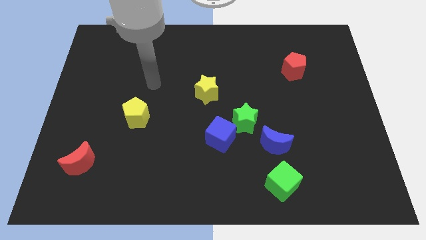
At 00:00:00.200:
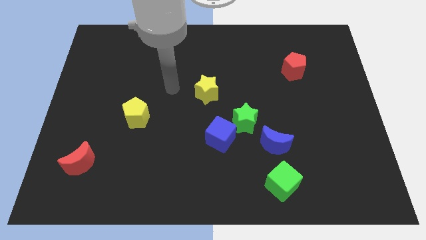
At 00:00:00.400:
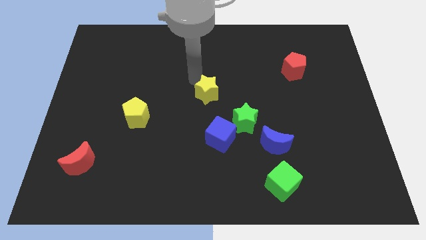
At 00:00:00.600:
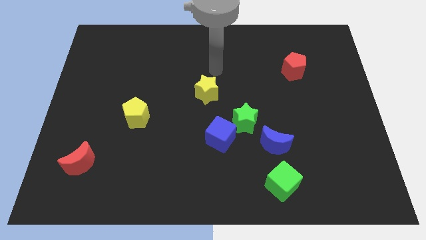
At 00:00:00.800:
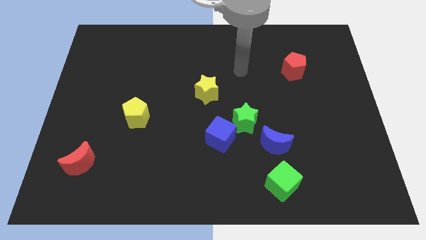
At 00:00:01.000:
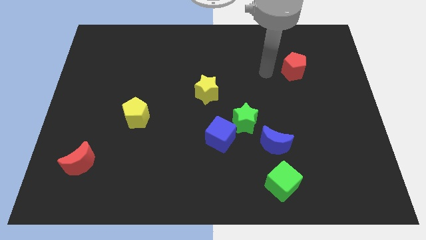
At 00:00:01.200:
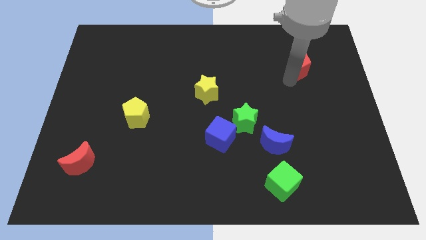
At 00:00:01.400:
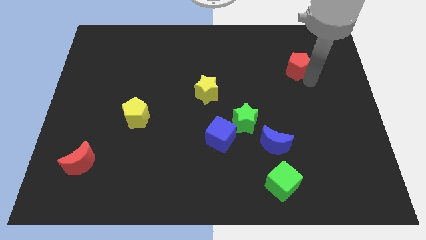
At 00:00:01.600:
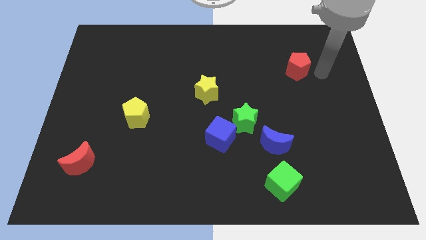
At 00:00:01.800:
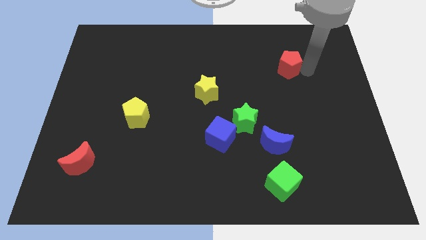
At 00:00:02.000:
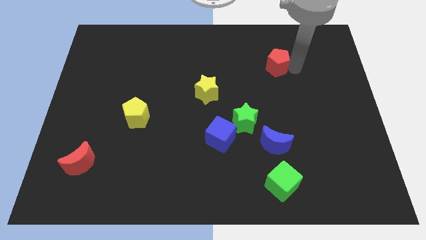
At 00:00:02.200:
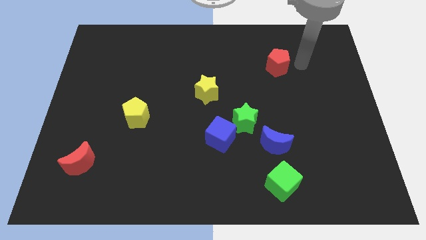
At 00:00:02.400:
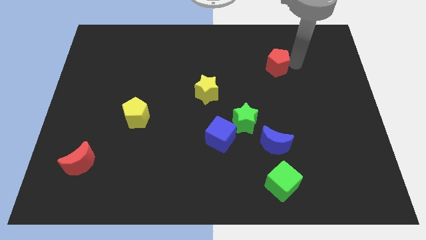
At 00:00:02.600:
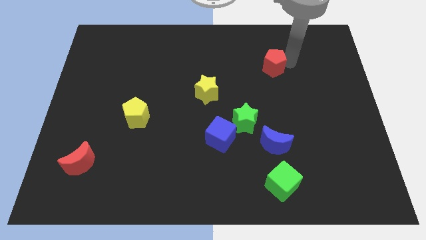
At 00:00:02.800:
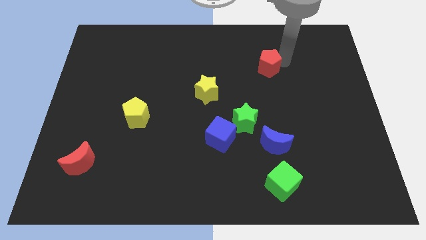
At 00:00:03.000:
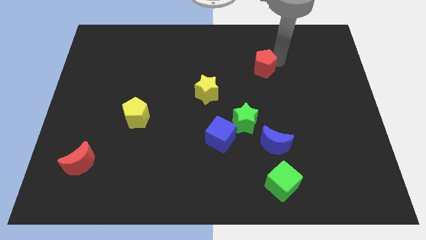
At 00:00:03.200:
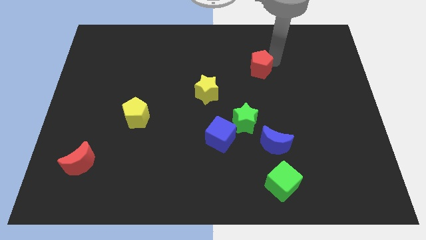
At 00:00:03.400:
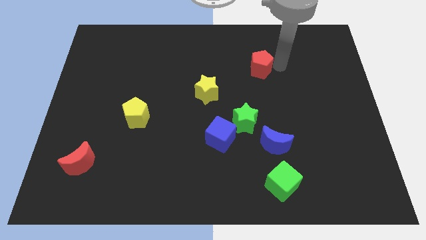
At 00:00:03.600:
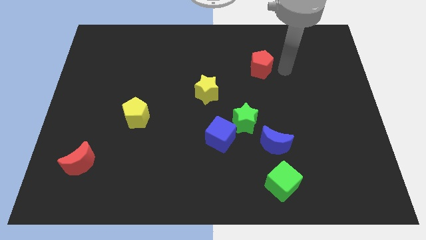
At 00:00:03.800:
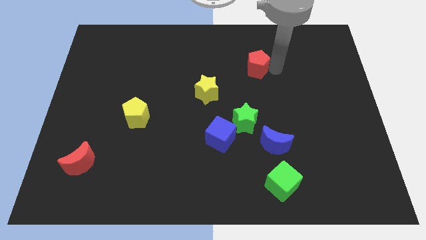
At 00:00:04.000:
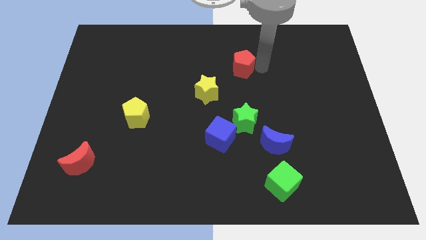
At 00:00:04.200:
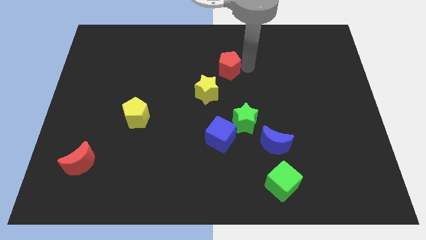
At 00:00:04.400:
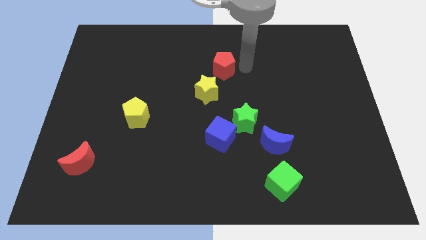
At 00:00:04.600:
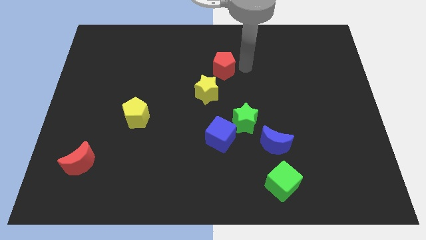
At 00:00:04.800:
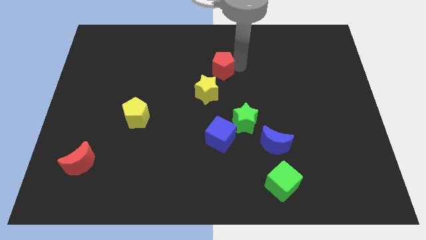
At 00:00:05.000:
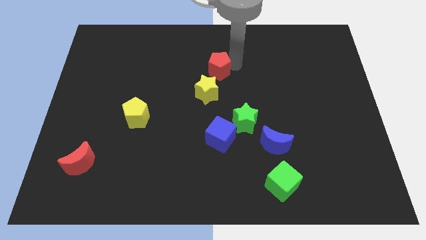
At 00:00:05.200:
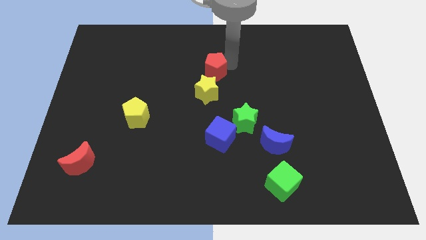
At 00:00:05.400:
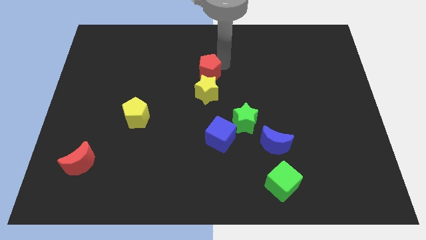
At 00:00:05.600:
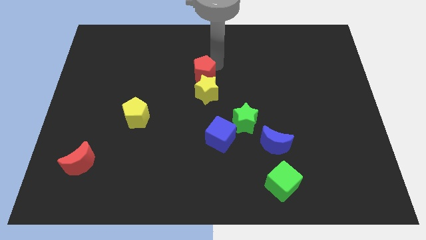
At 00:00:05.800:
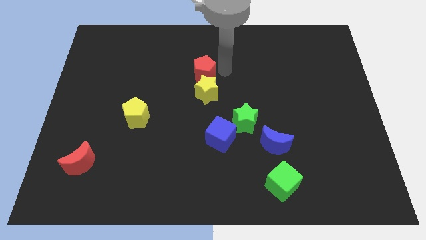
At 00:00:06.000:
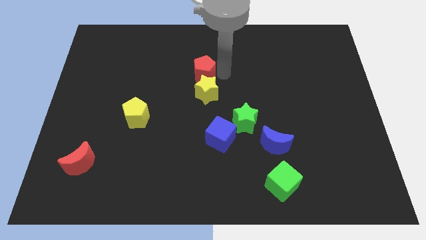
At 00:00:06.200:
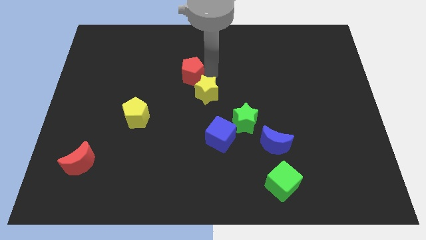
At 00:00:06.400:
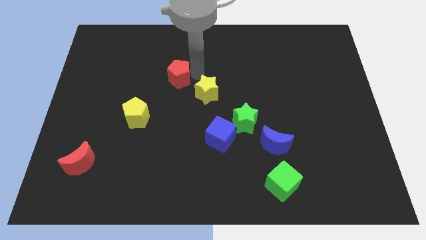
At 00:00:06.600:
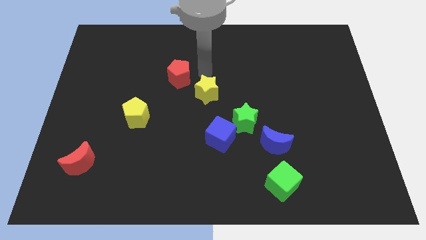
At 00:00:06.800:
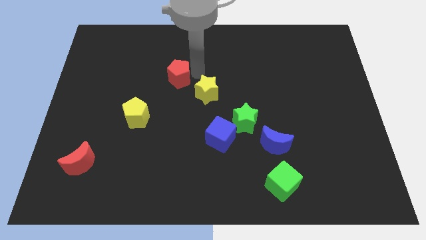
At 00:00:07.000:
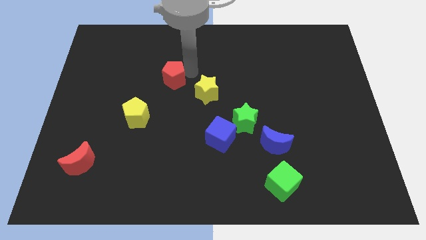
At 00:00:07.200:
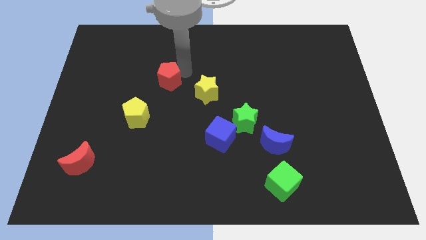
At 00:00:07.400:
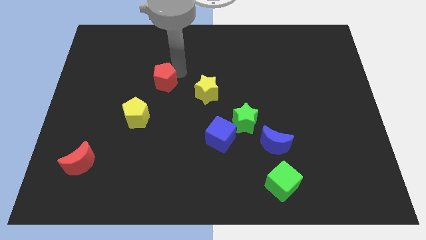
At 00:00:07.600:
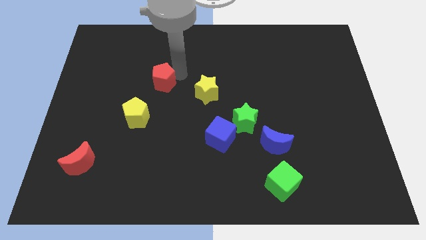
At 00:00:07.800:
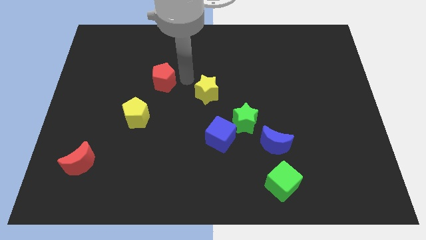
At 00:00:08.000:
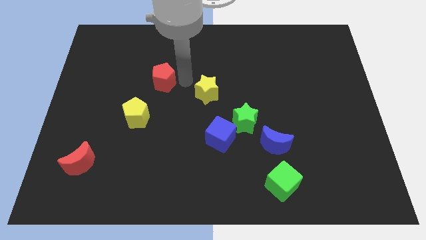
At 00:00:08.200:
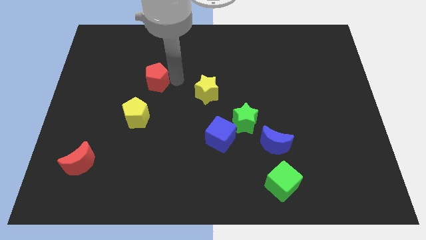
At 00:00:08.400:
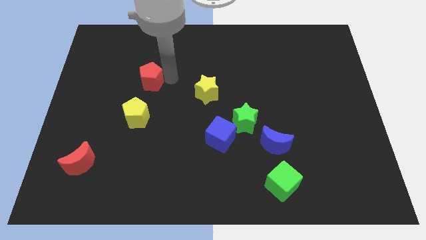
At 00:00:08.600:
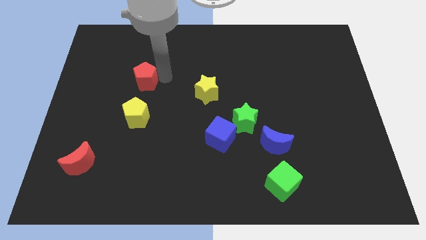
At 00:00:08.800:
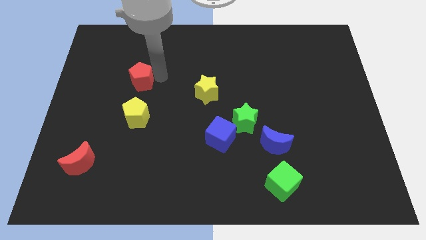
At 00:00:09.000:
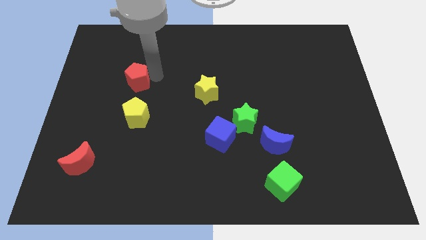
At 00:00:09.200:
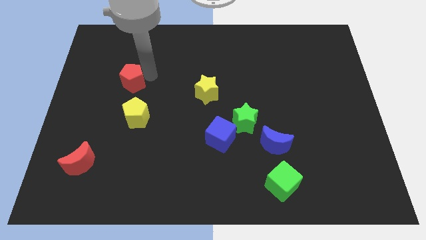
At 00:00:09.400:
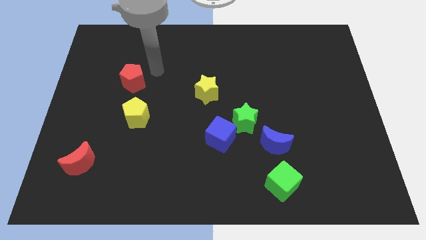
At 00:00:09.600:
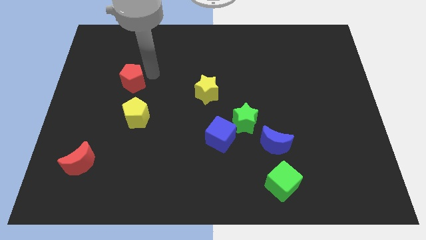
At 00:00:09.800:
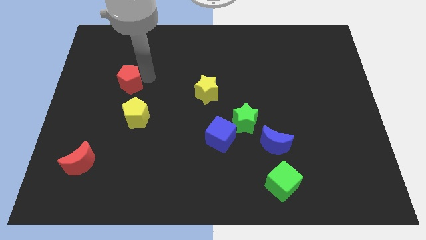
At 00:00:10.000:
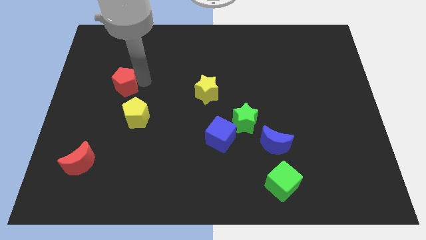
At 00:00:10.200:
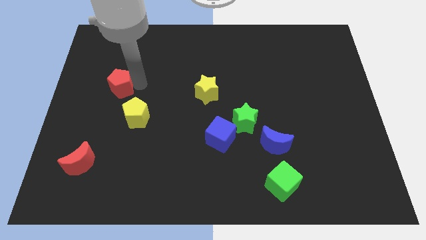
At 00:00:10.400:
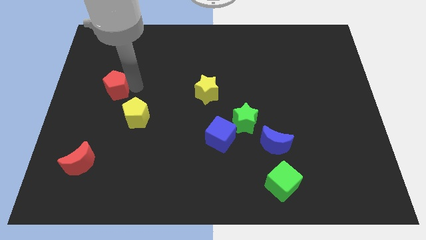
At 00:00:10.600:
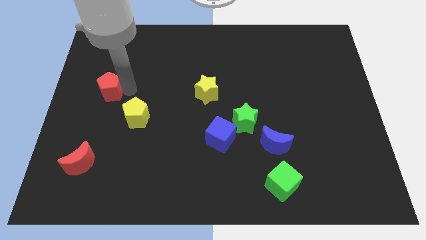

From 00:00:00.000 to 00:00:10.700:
move the red pentagon to the left side

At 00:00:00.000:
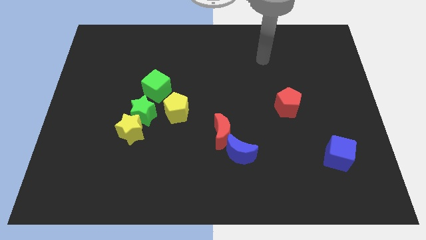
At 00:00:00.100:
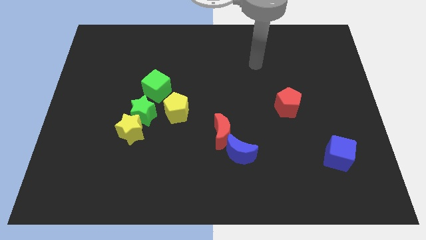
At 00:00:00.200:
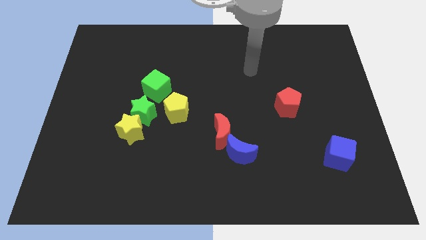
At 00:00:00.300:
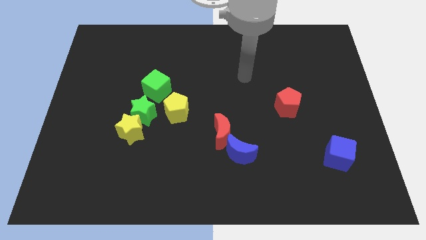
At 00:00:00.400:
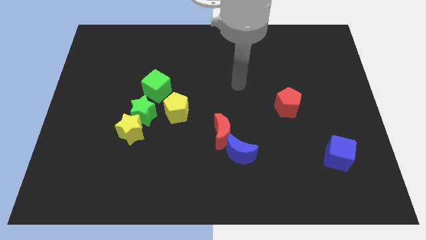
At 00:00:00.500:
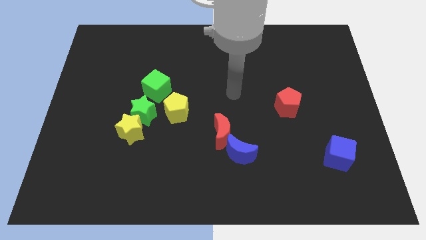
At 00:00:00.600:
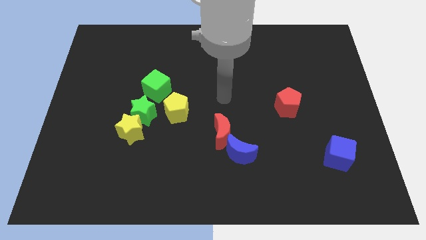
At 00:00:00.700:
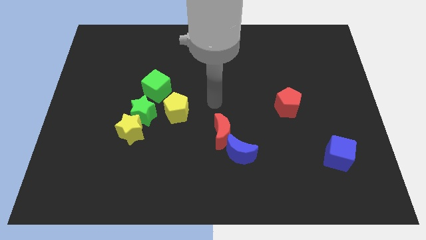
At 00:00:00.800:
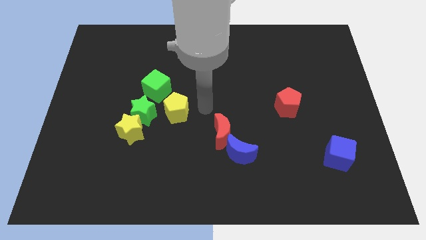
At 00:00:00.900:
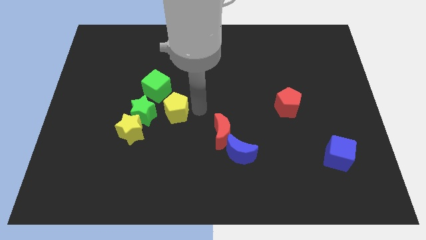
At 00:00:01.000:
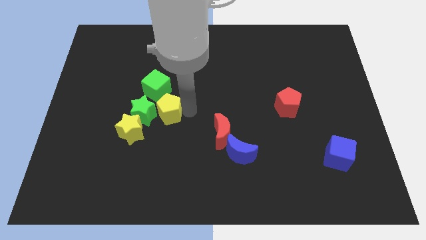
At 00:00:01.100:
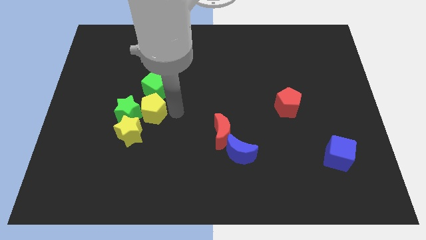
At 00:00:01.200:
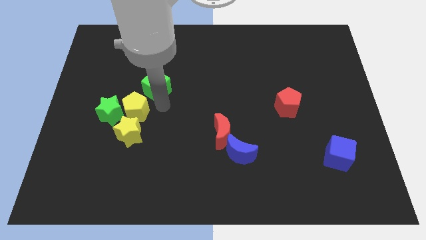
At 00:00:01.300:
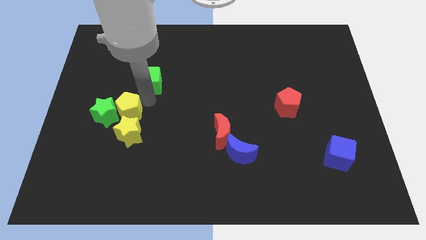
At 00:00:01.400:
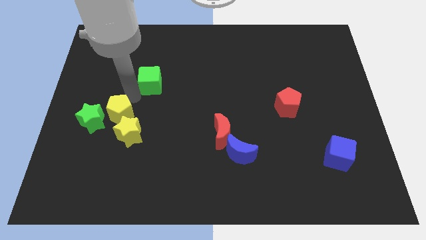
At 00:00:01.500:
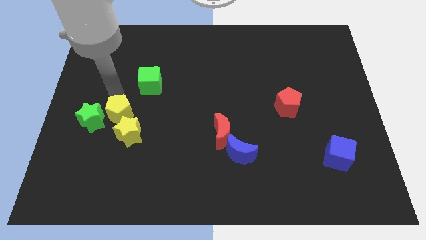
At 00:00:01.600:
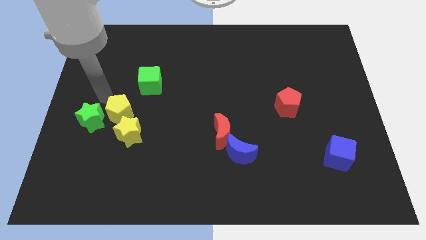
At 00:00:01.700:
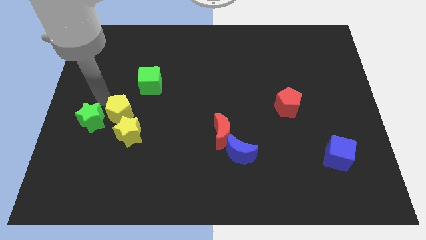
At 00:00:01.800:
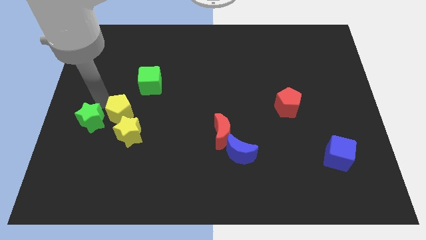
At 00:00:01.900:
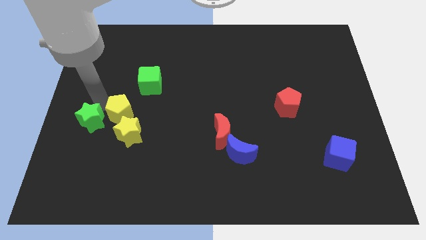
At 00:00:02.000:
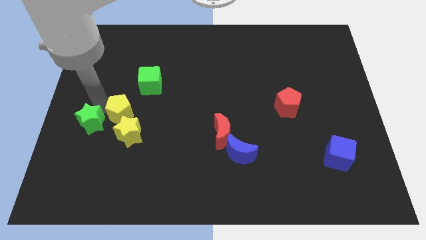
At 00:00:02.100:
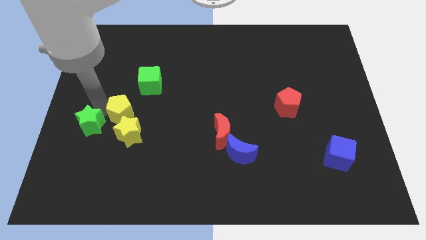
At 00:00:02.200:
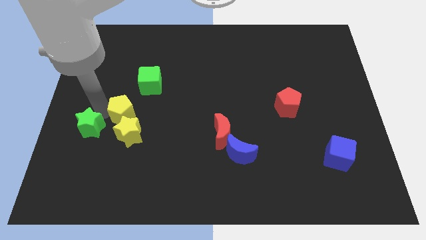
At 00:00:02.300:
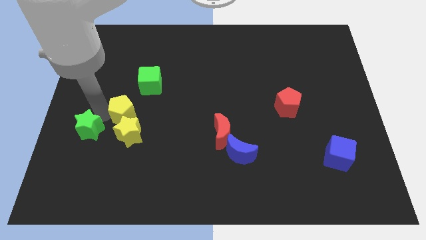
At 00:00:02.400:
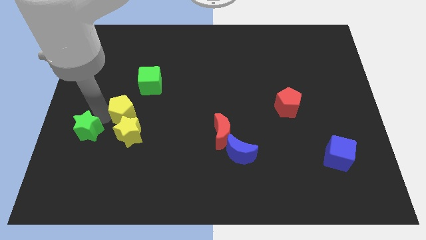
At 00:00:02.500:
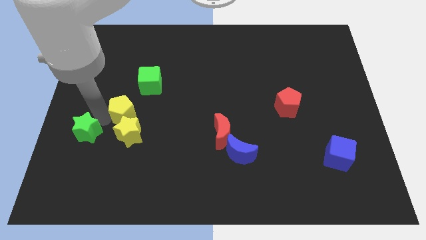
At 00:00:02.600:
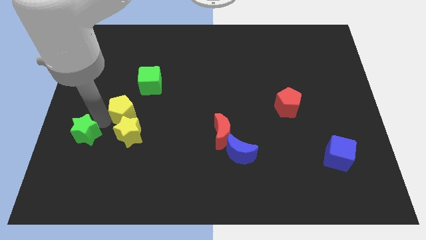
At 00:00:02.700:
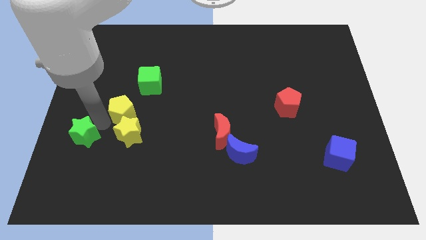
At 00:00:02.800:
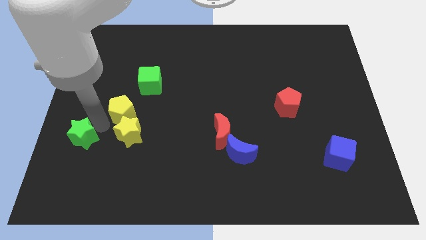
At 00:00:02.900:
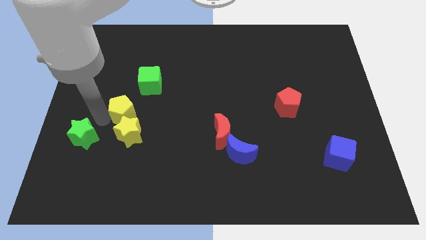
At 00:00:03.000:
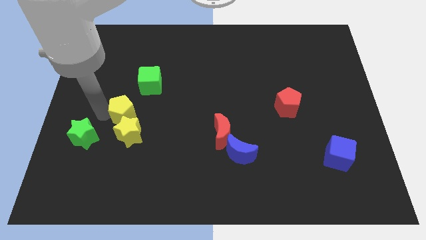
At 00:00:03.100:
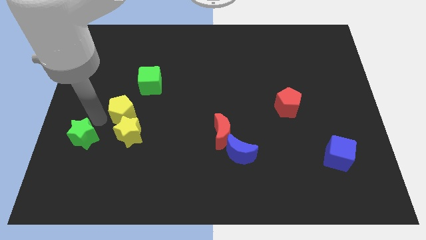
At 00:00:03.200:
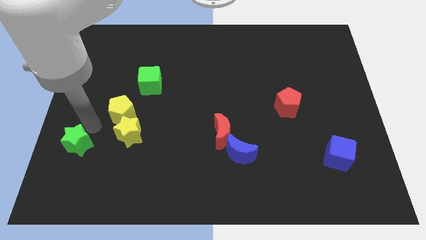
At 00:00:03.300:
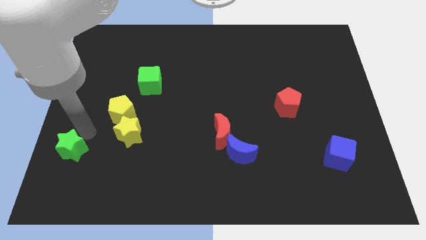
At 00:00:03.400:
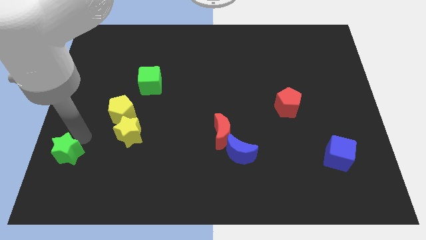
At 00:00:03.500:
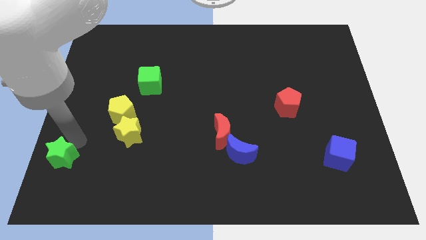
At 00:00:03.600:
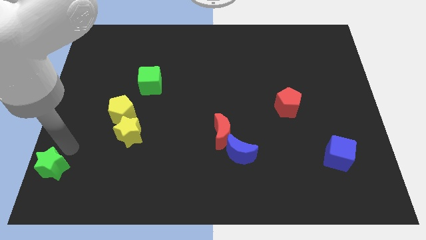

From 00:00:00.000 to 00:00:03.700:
put the green star to the bottom left of the board
